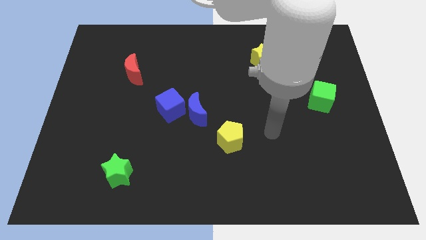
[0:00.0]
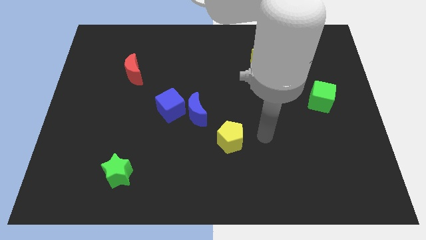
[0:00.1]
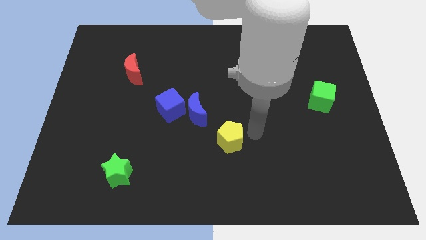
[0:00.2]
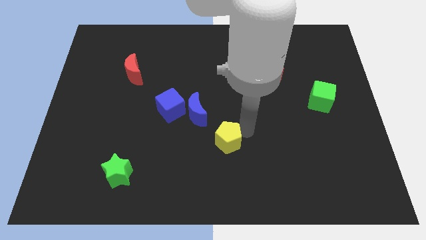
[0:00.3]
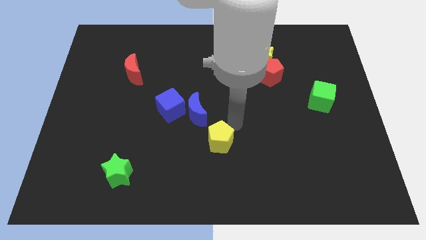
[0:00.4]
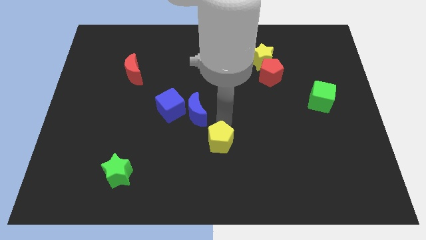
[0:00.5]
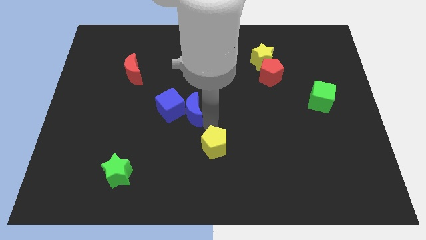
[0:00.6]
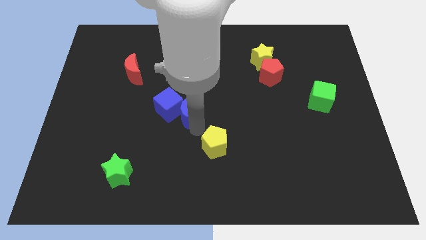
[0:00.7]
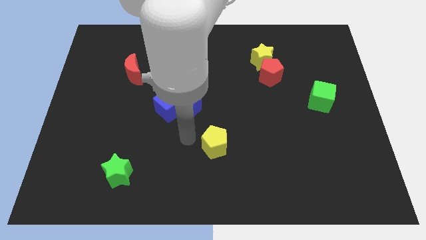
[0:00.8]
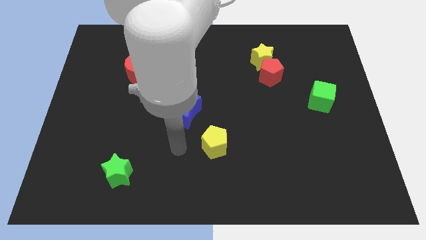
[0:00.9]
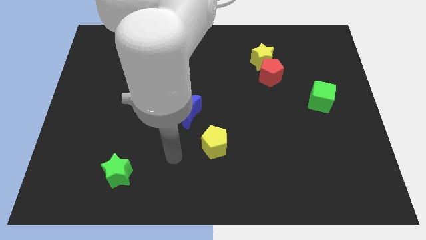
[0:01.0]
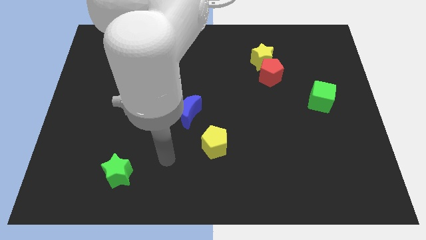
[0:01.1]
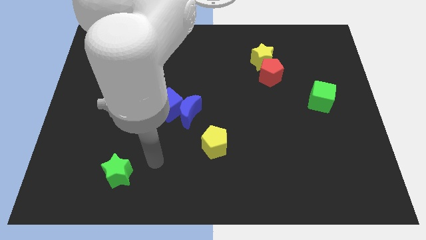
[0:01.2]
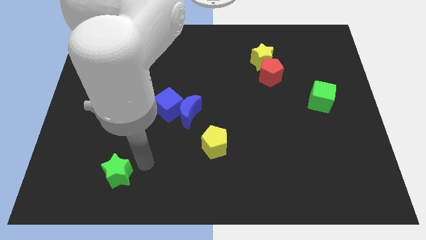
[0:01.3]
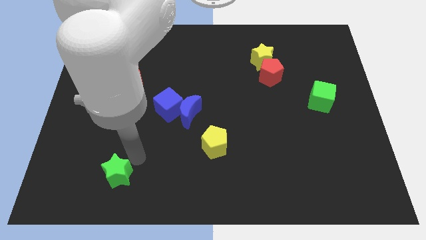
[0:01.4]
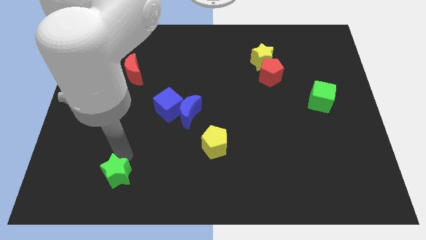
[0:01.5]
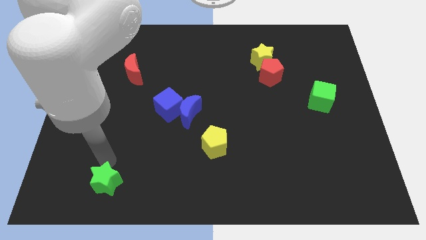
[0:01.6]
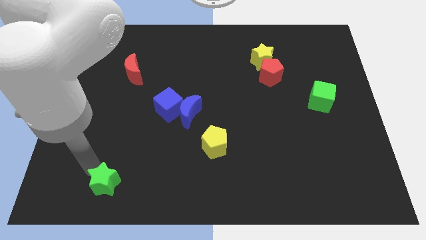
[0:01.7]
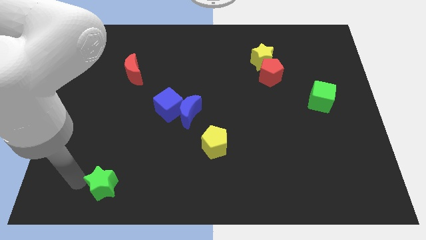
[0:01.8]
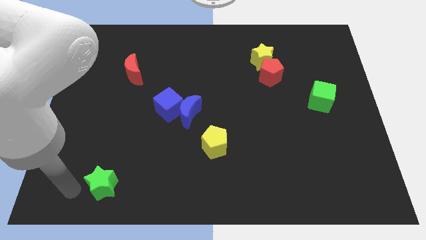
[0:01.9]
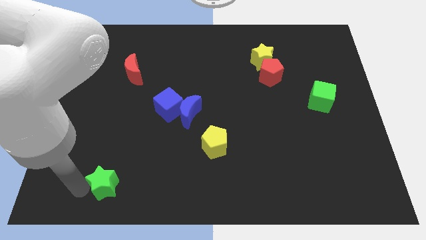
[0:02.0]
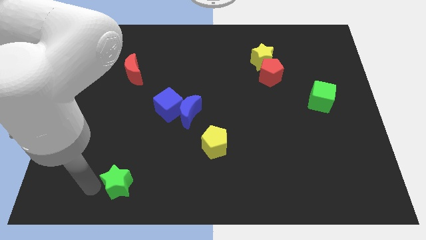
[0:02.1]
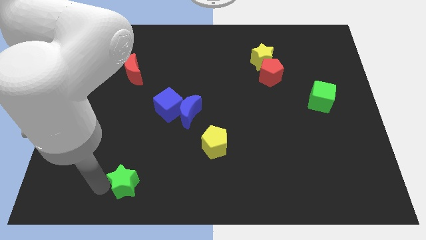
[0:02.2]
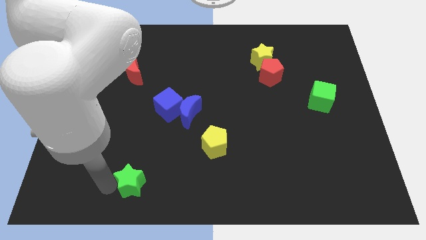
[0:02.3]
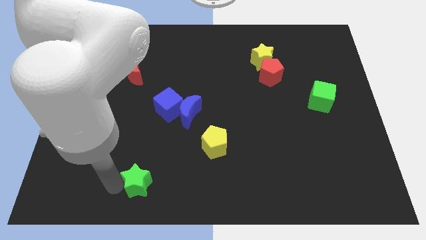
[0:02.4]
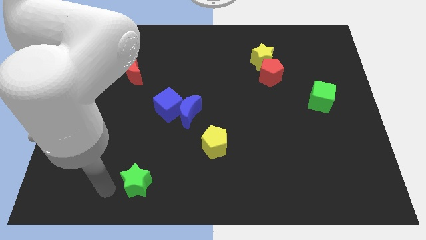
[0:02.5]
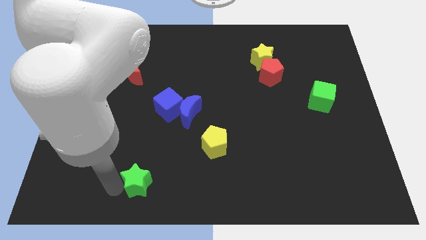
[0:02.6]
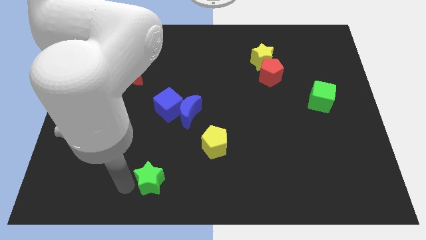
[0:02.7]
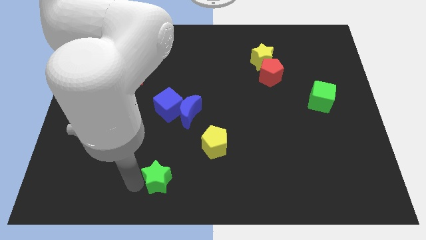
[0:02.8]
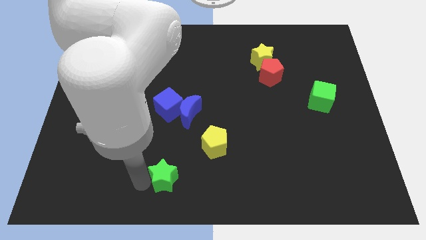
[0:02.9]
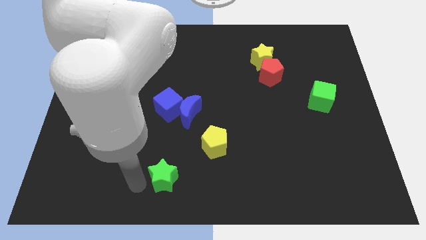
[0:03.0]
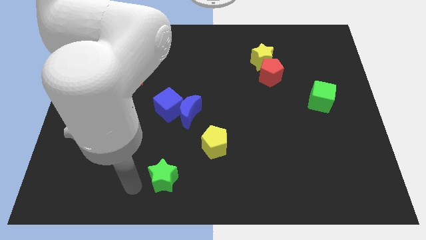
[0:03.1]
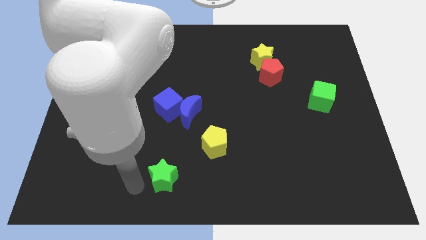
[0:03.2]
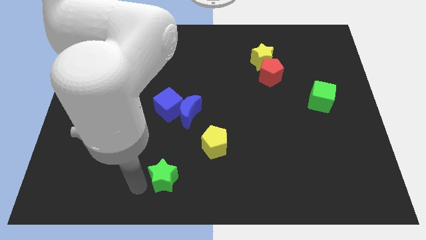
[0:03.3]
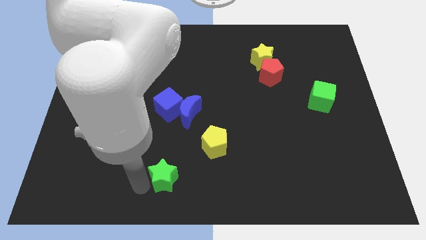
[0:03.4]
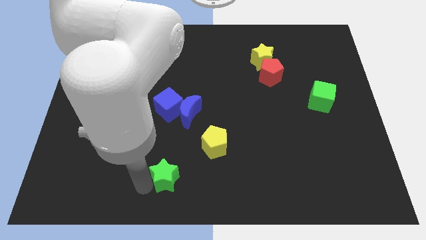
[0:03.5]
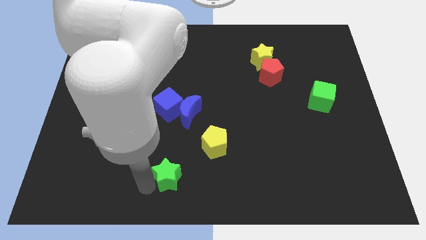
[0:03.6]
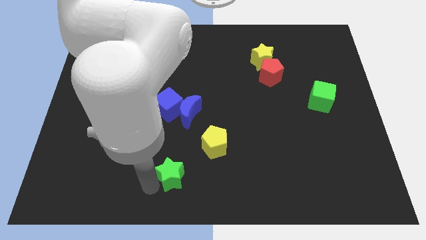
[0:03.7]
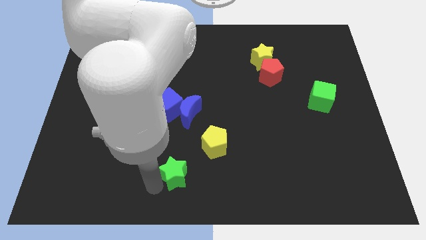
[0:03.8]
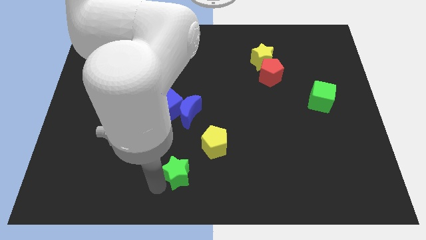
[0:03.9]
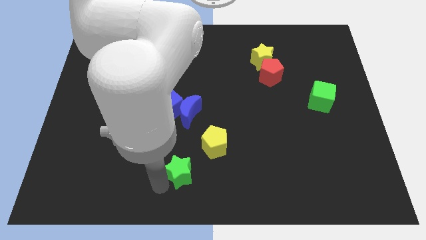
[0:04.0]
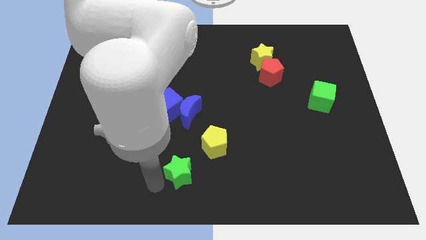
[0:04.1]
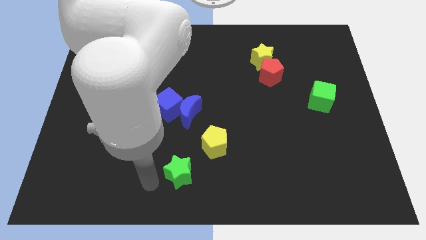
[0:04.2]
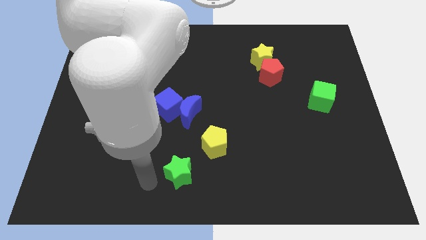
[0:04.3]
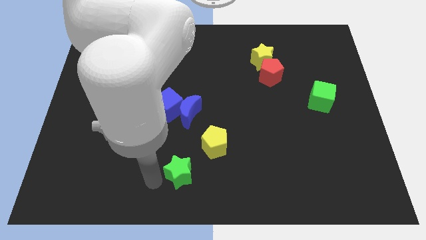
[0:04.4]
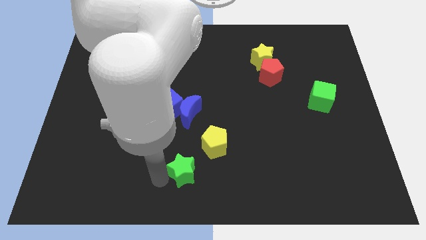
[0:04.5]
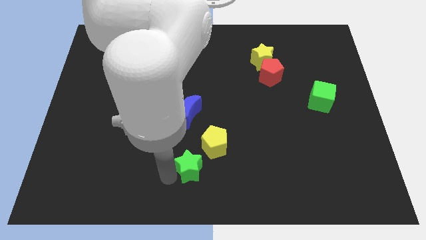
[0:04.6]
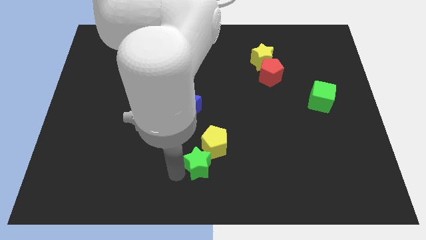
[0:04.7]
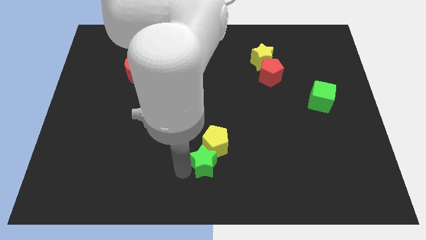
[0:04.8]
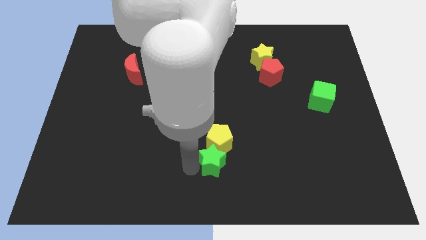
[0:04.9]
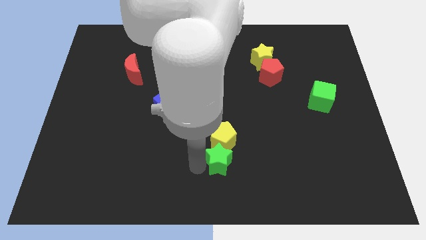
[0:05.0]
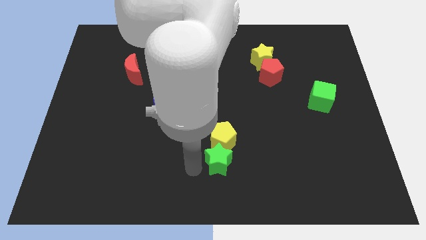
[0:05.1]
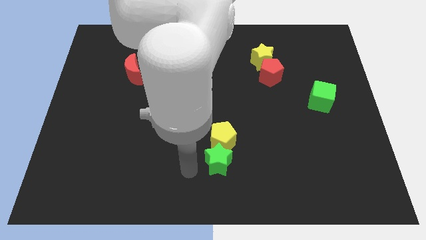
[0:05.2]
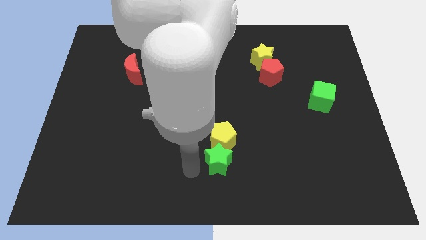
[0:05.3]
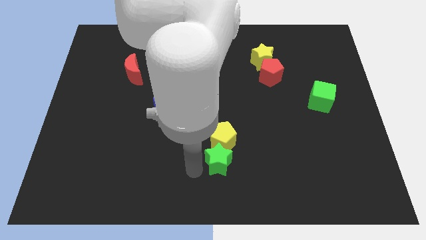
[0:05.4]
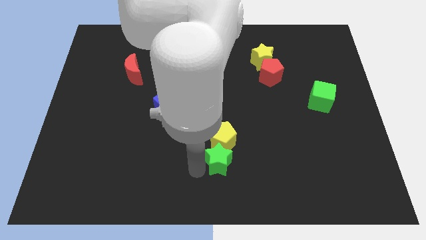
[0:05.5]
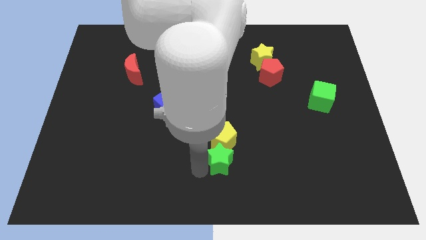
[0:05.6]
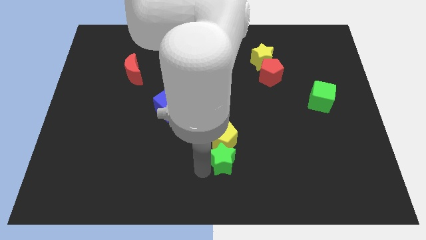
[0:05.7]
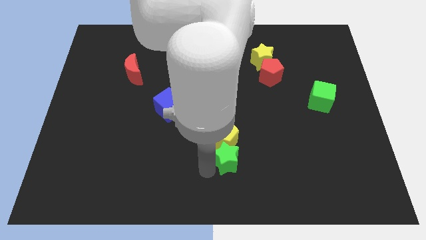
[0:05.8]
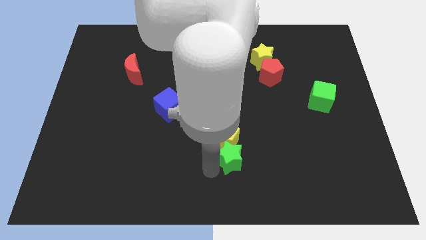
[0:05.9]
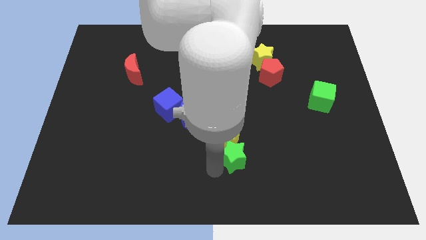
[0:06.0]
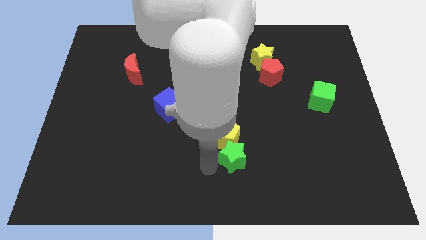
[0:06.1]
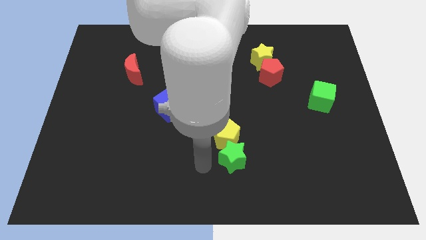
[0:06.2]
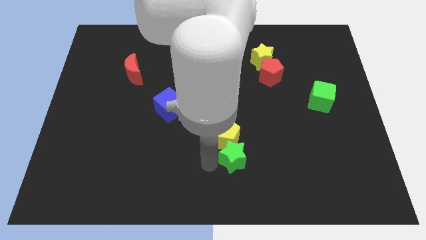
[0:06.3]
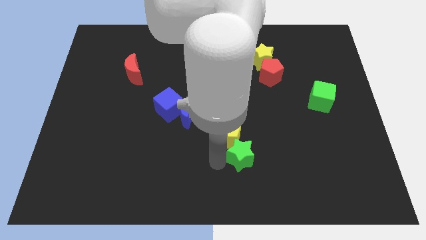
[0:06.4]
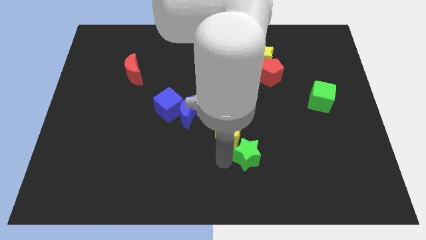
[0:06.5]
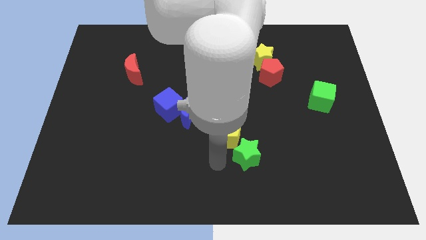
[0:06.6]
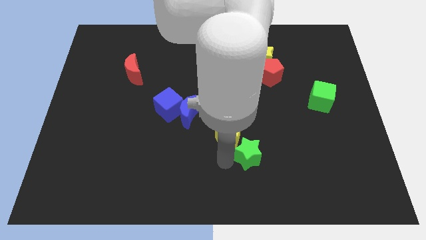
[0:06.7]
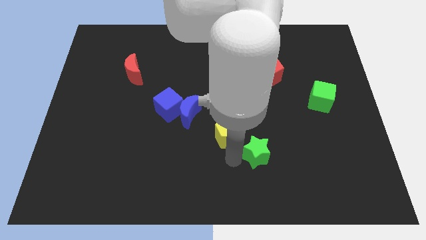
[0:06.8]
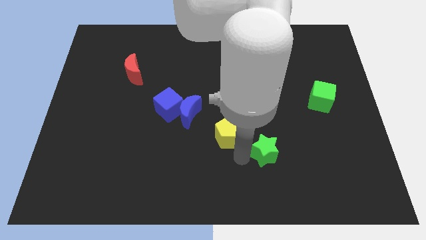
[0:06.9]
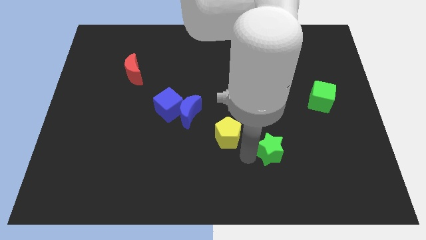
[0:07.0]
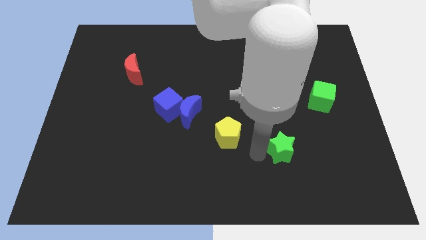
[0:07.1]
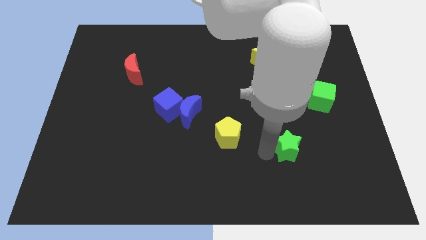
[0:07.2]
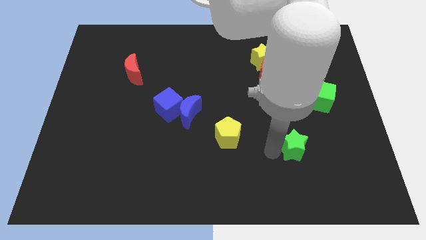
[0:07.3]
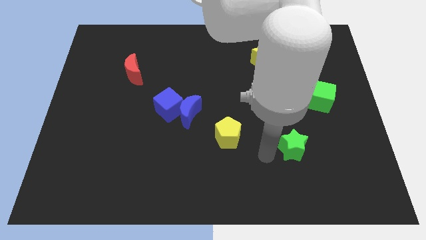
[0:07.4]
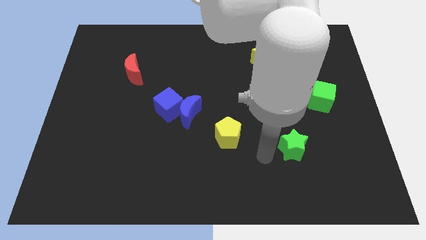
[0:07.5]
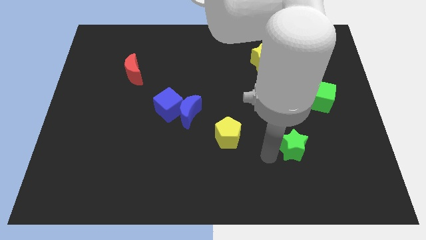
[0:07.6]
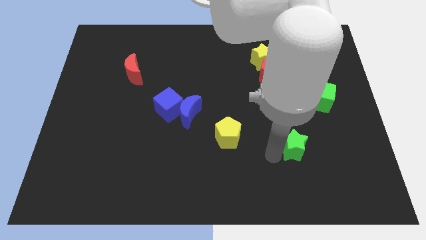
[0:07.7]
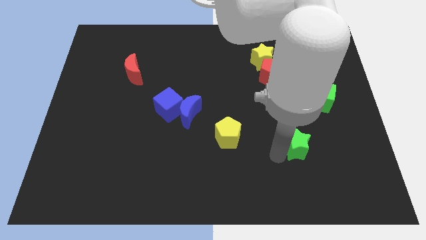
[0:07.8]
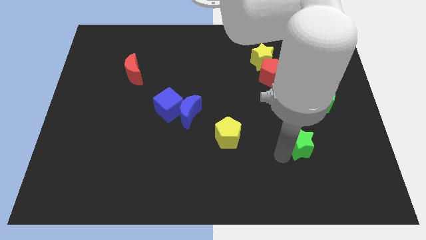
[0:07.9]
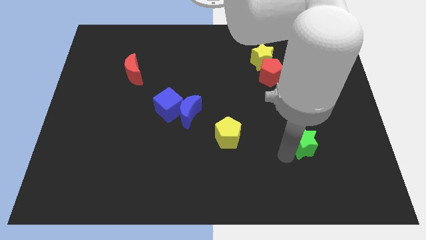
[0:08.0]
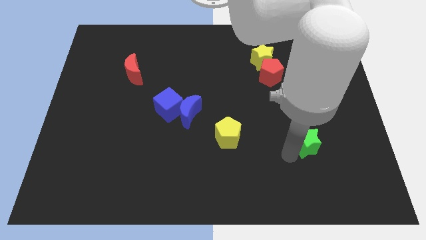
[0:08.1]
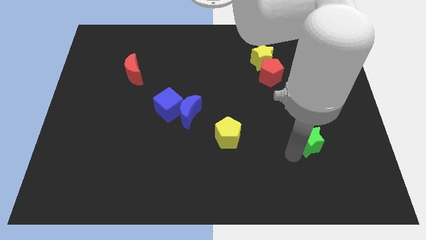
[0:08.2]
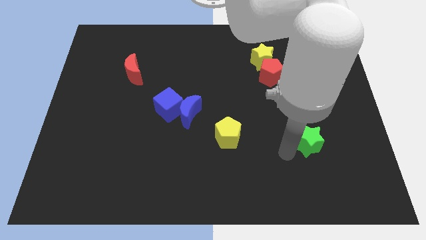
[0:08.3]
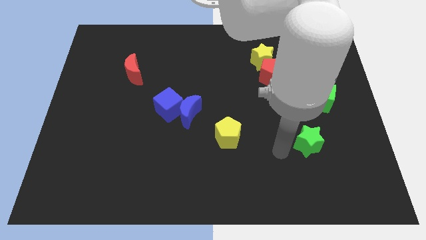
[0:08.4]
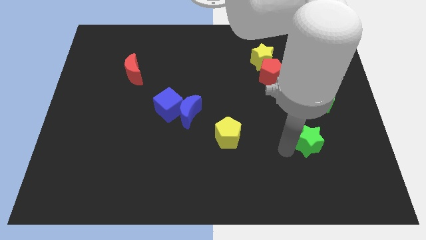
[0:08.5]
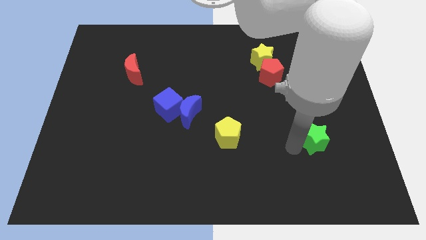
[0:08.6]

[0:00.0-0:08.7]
move the green star below the green cube
